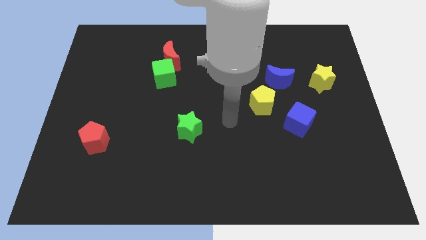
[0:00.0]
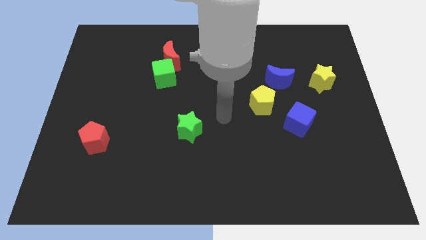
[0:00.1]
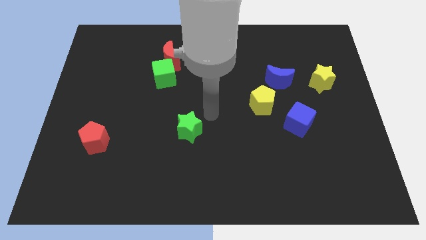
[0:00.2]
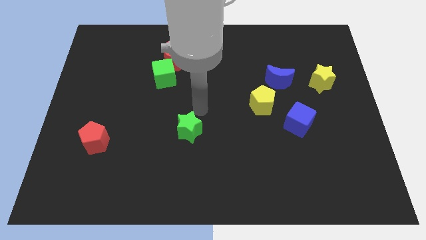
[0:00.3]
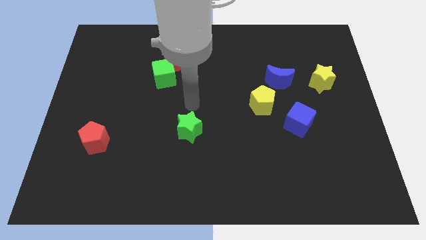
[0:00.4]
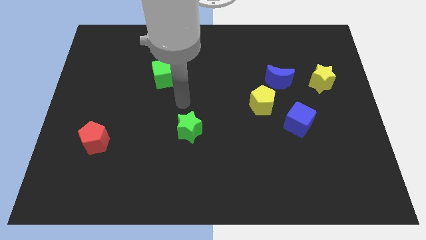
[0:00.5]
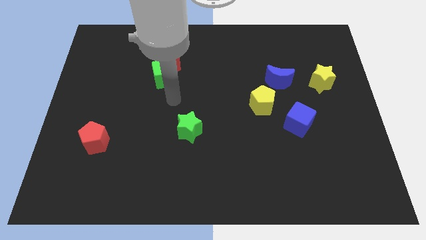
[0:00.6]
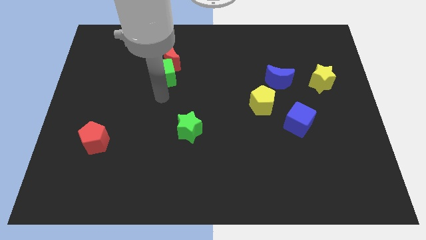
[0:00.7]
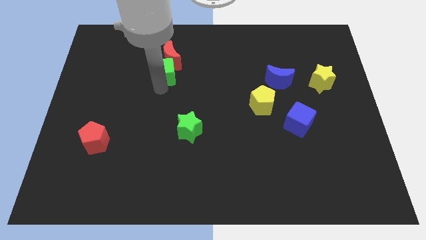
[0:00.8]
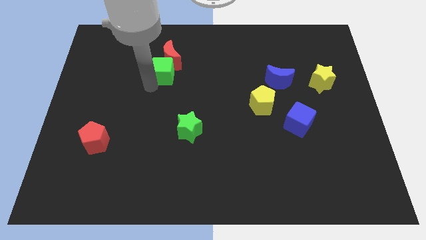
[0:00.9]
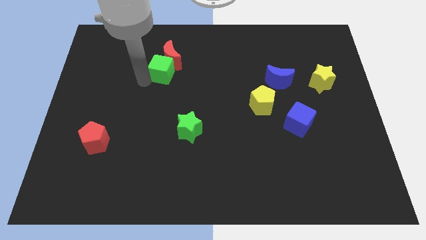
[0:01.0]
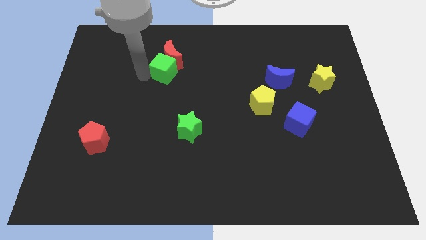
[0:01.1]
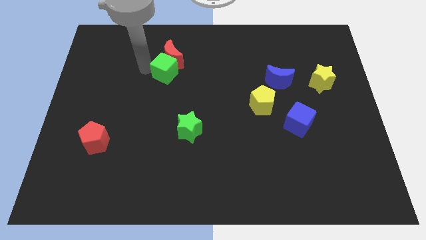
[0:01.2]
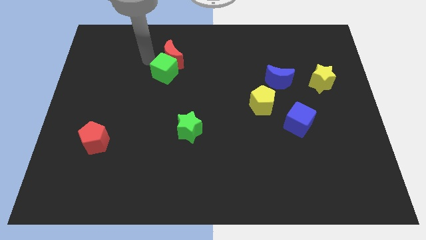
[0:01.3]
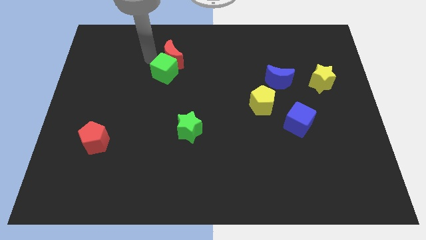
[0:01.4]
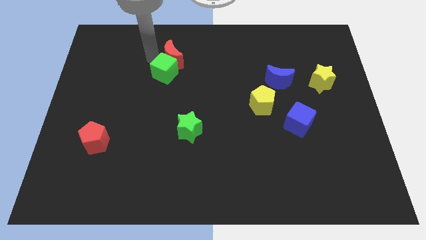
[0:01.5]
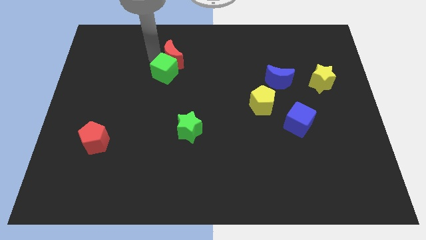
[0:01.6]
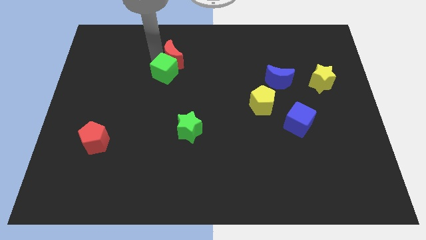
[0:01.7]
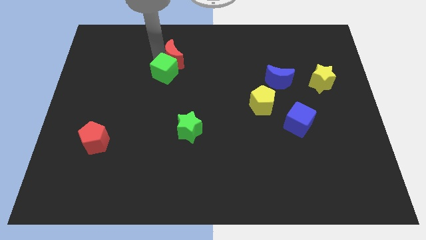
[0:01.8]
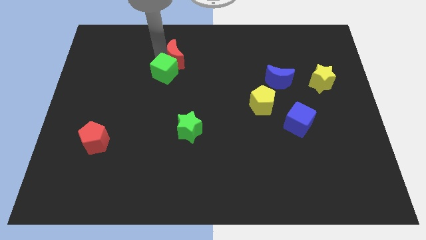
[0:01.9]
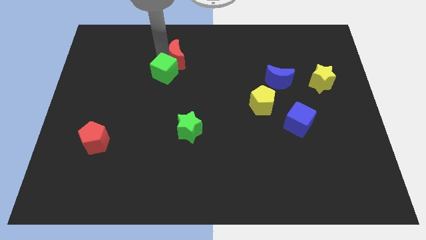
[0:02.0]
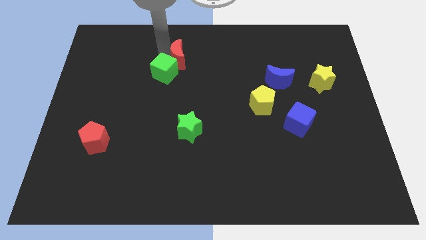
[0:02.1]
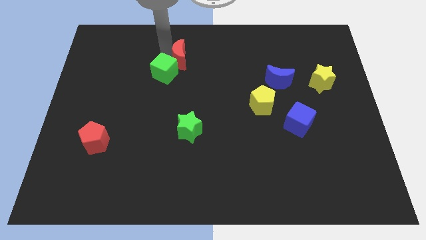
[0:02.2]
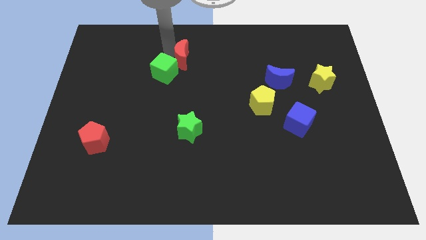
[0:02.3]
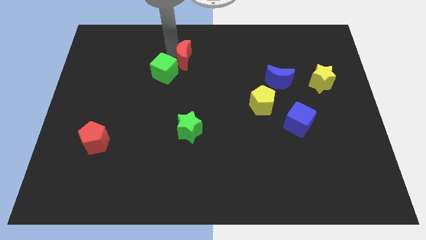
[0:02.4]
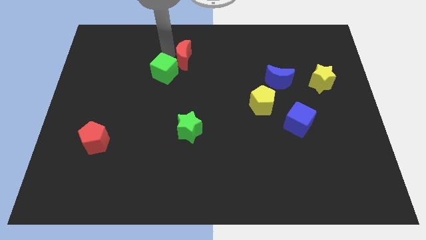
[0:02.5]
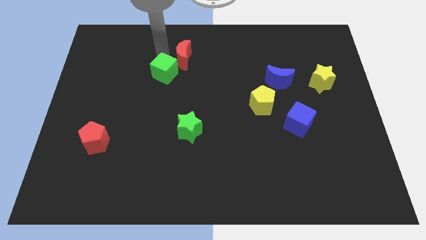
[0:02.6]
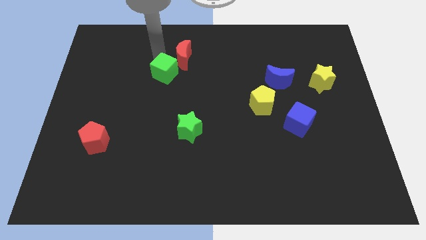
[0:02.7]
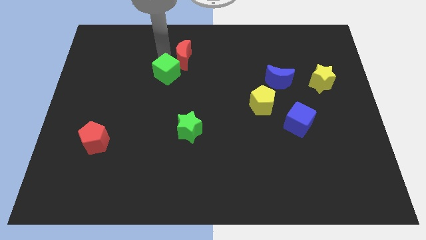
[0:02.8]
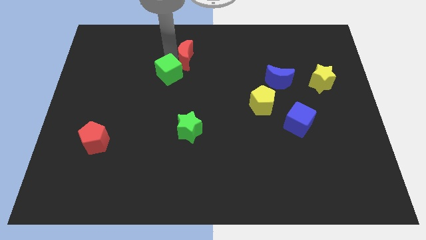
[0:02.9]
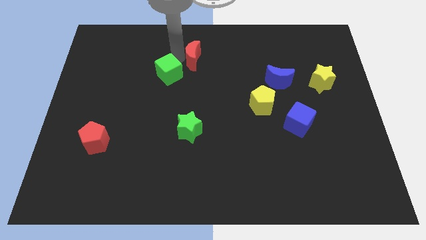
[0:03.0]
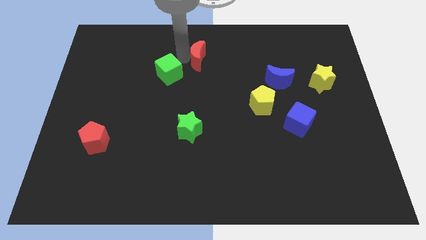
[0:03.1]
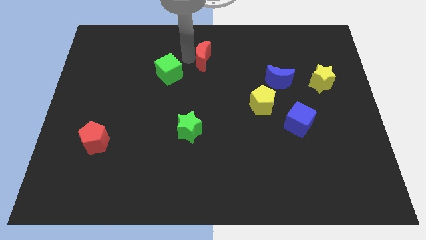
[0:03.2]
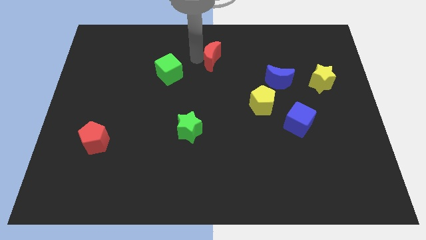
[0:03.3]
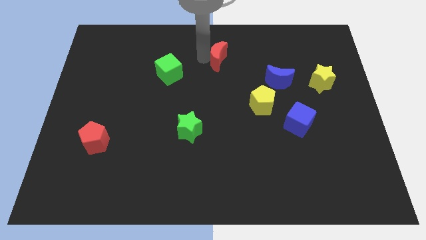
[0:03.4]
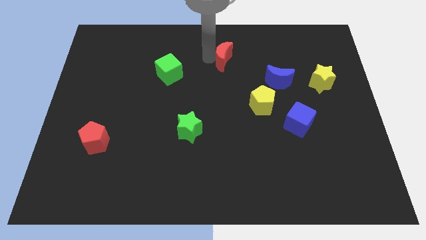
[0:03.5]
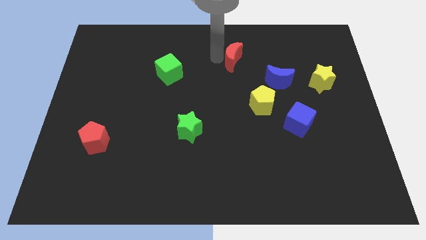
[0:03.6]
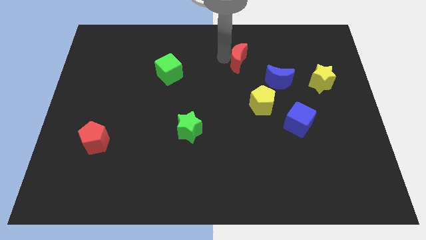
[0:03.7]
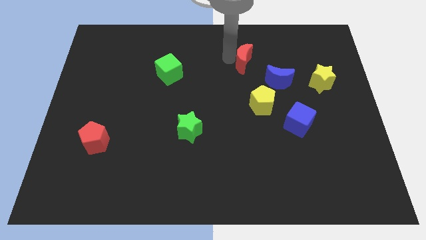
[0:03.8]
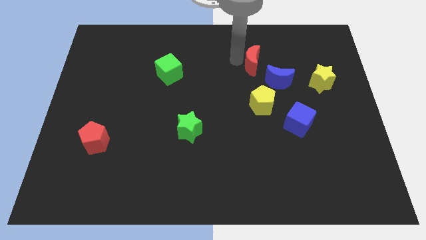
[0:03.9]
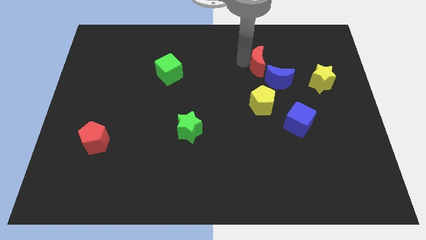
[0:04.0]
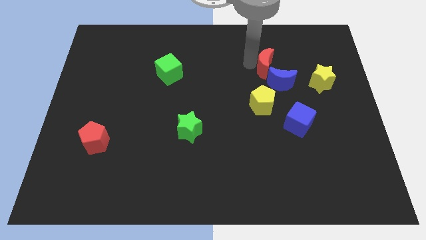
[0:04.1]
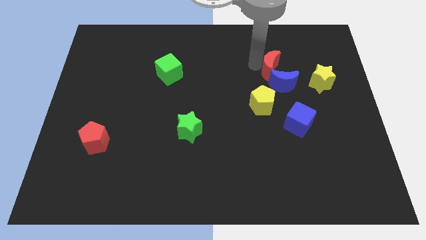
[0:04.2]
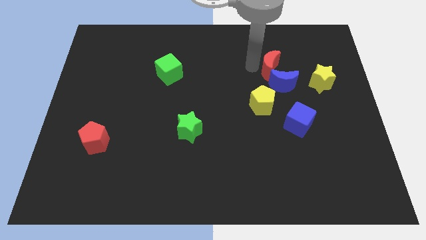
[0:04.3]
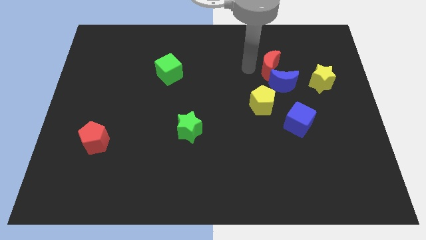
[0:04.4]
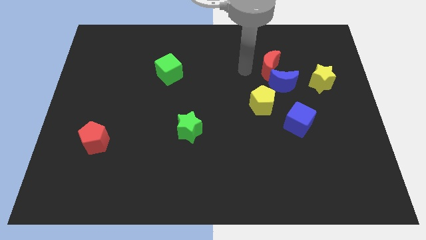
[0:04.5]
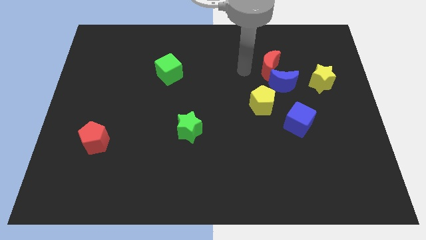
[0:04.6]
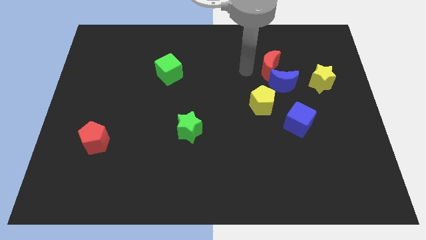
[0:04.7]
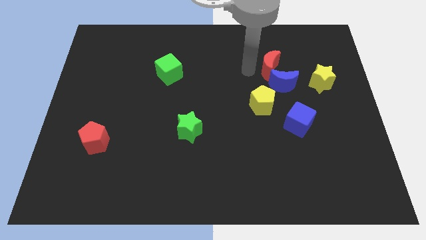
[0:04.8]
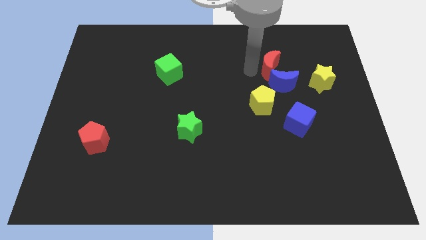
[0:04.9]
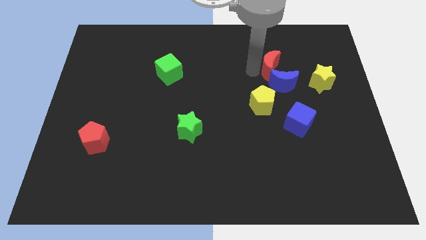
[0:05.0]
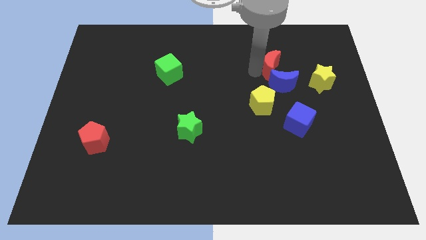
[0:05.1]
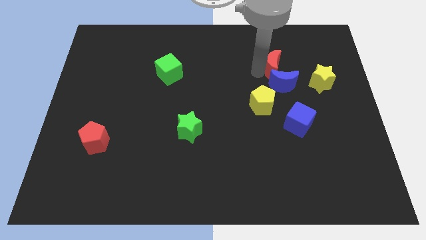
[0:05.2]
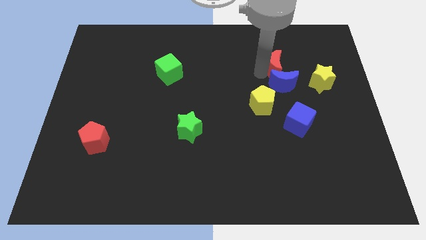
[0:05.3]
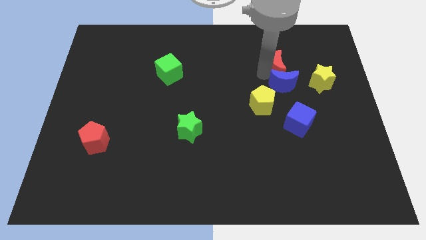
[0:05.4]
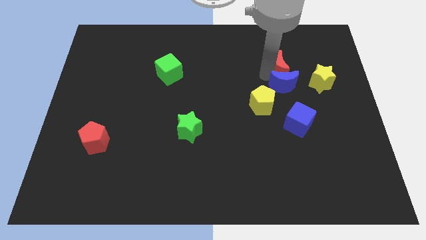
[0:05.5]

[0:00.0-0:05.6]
push the red moon to the top left of the yellow star

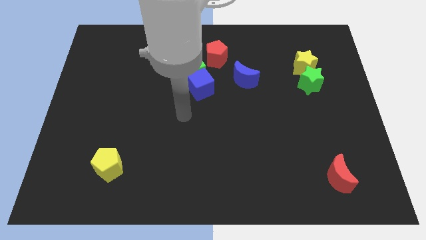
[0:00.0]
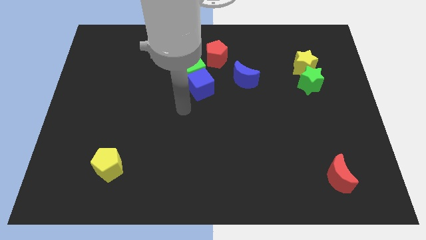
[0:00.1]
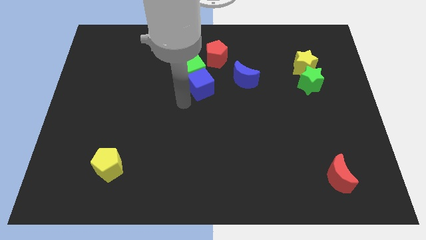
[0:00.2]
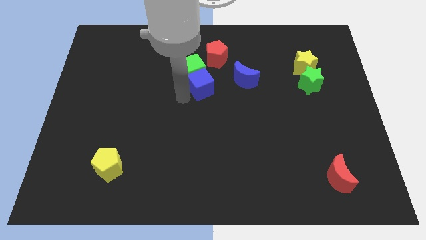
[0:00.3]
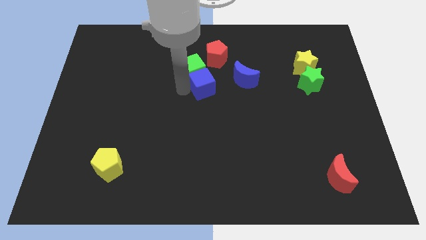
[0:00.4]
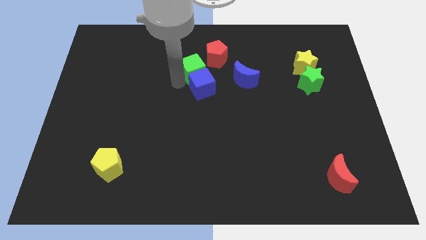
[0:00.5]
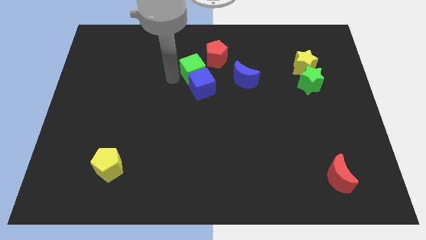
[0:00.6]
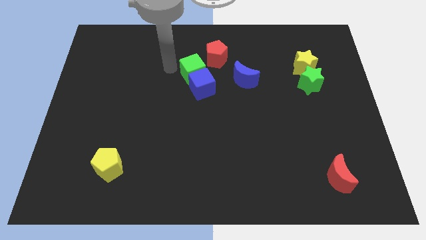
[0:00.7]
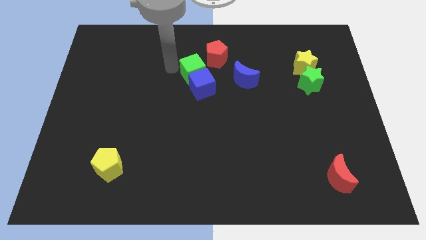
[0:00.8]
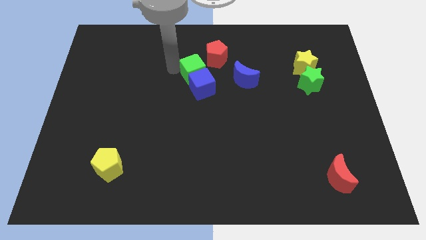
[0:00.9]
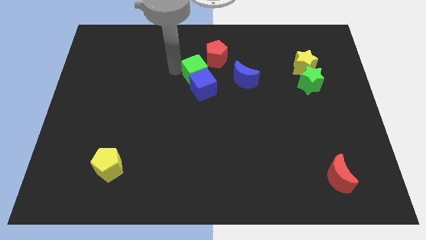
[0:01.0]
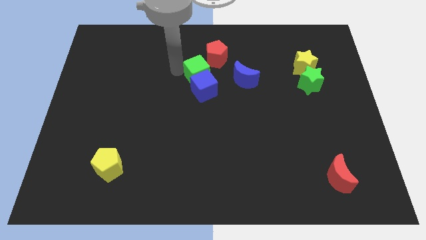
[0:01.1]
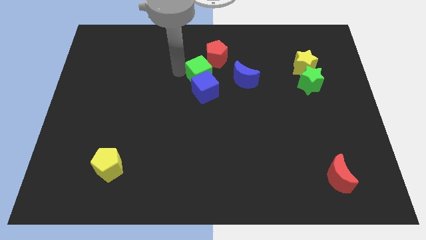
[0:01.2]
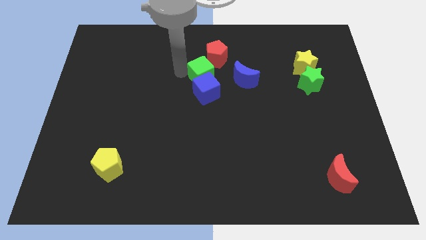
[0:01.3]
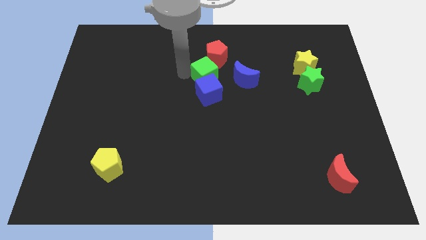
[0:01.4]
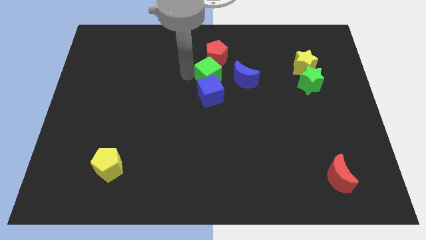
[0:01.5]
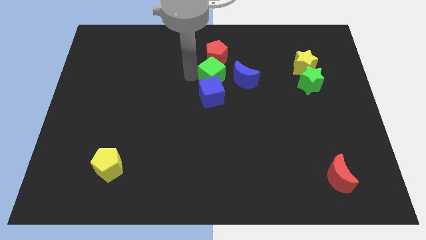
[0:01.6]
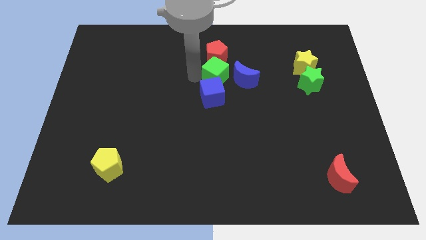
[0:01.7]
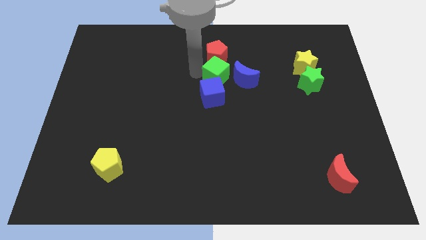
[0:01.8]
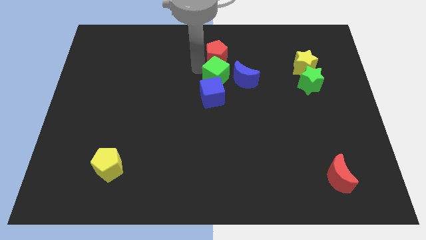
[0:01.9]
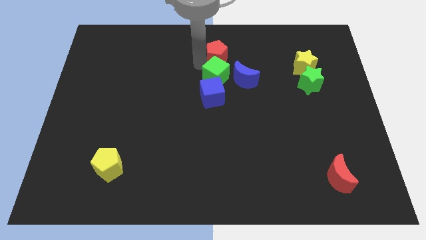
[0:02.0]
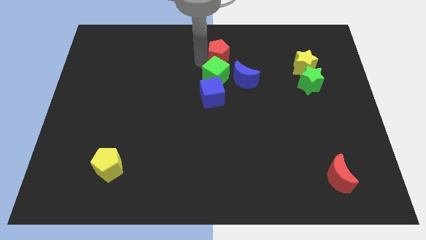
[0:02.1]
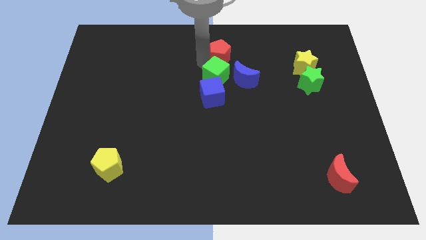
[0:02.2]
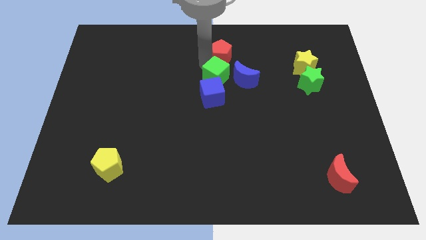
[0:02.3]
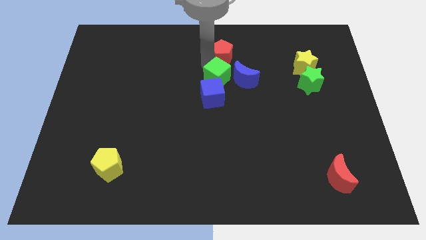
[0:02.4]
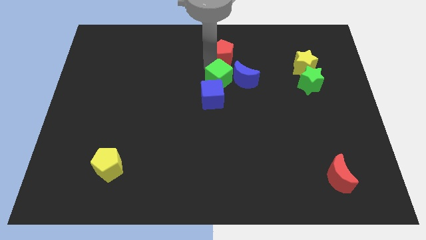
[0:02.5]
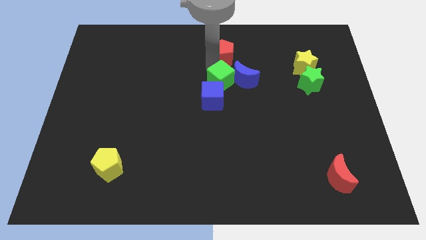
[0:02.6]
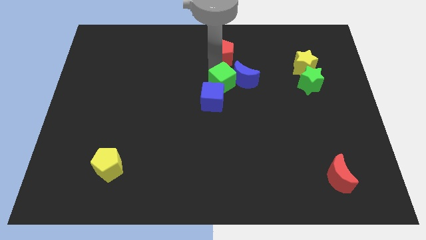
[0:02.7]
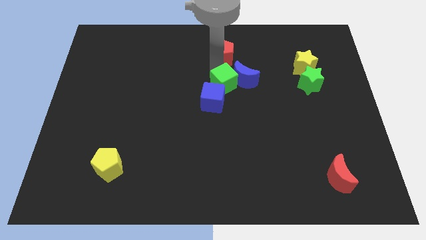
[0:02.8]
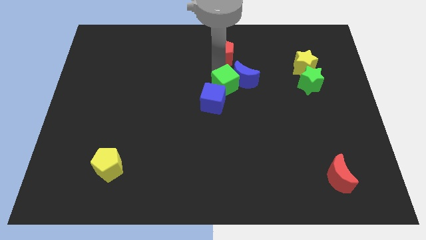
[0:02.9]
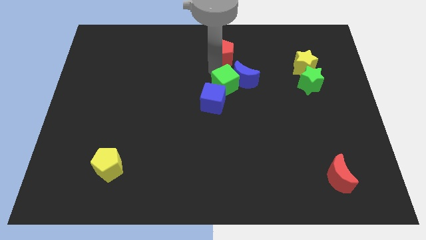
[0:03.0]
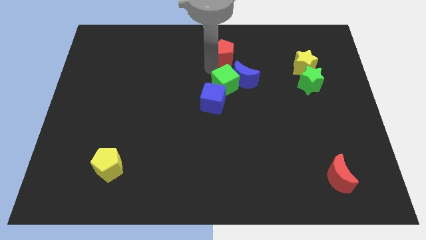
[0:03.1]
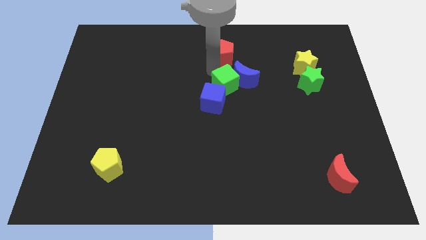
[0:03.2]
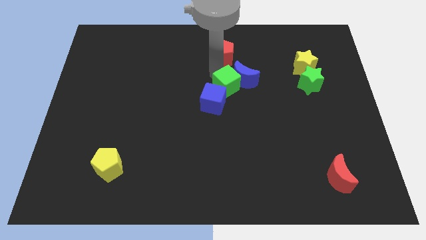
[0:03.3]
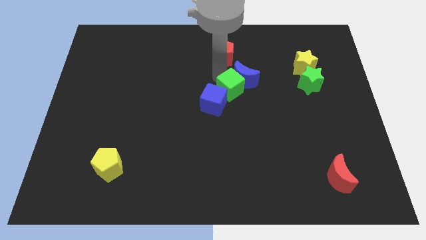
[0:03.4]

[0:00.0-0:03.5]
push the green cube right of the blue cube
